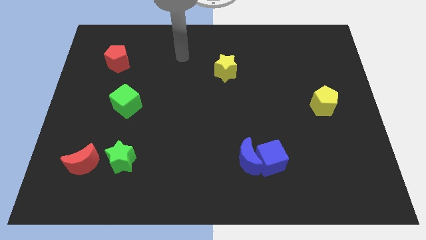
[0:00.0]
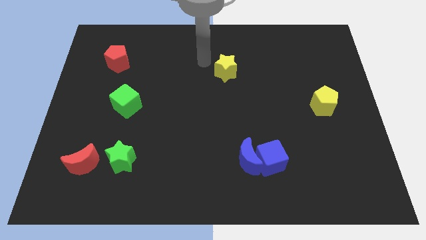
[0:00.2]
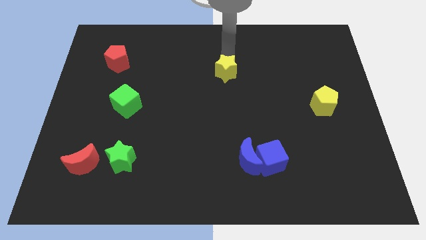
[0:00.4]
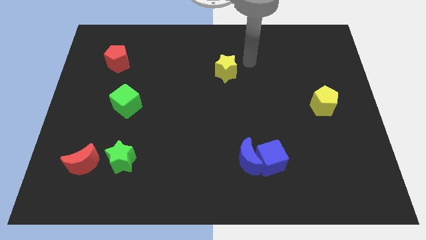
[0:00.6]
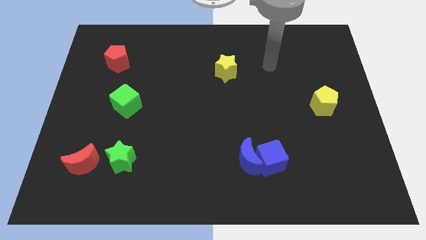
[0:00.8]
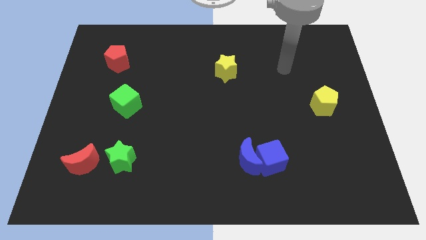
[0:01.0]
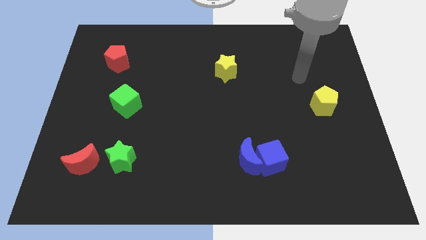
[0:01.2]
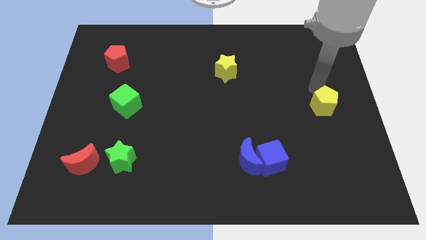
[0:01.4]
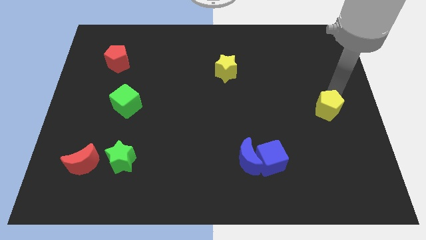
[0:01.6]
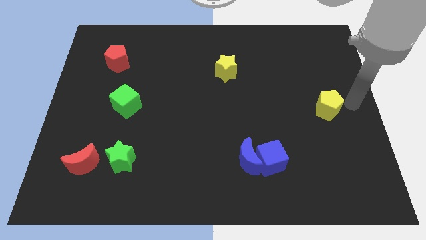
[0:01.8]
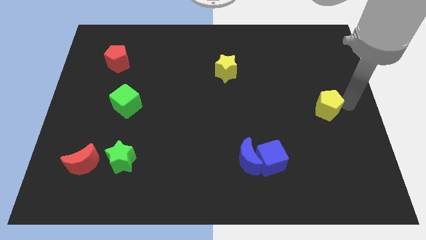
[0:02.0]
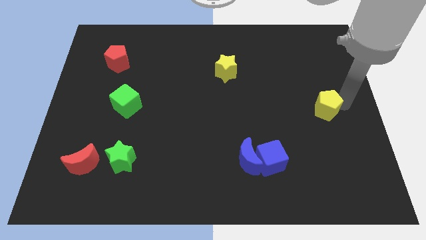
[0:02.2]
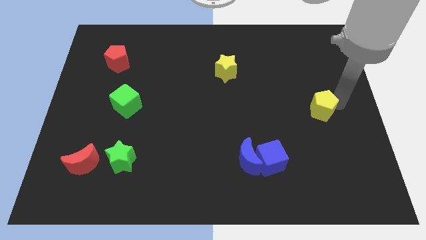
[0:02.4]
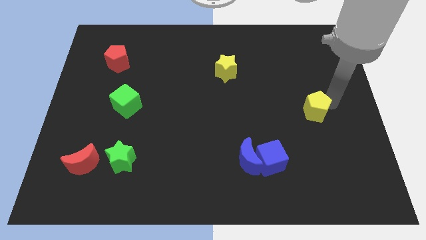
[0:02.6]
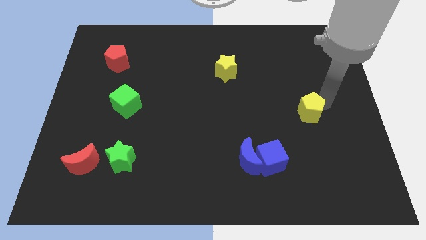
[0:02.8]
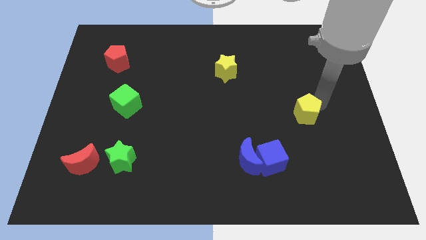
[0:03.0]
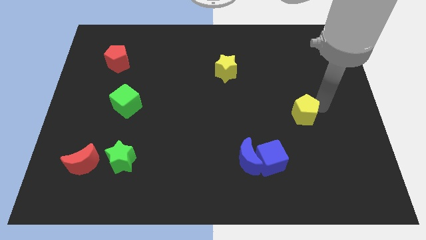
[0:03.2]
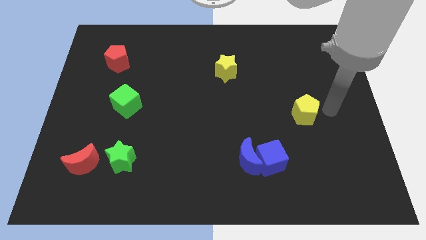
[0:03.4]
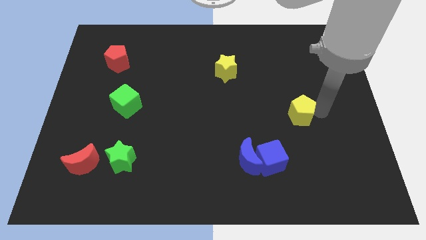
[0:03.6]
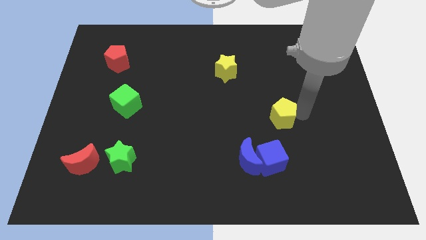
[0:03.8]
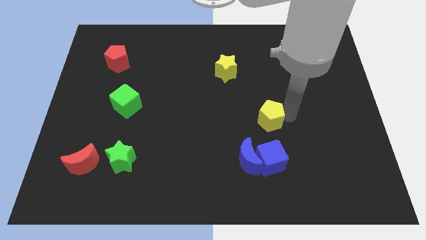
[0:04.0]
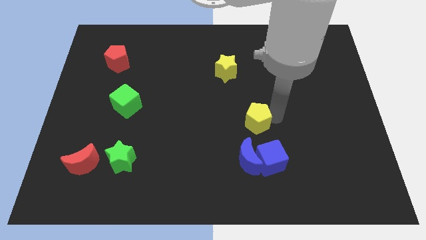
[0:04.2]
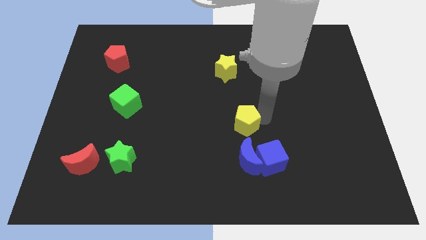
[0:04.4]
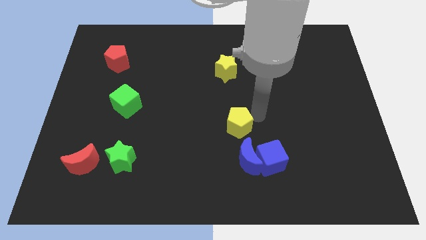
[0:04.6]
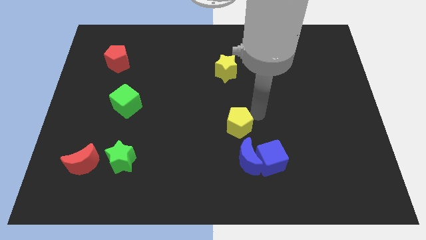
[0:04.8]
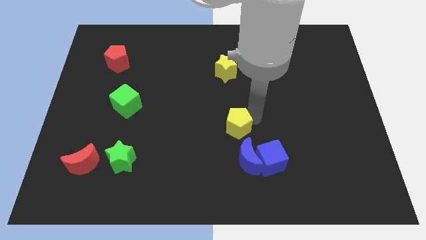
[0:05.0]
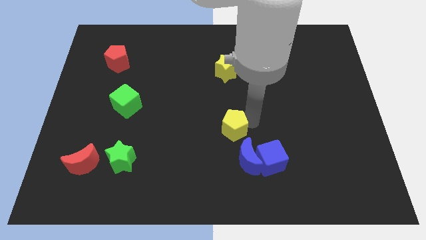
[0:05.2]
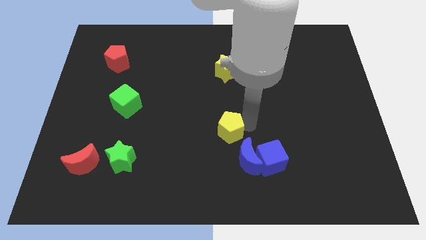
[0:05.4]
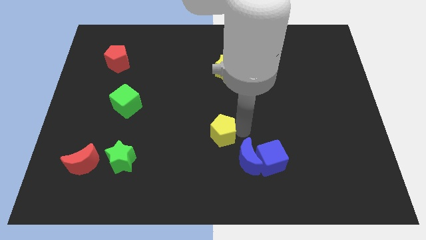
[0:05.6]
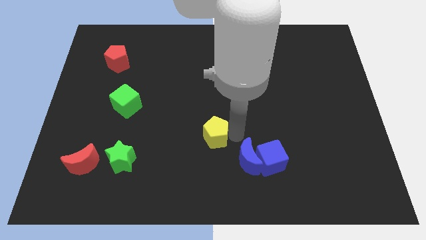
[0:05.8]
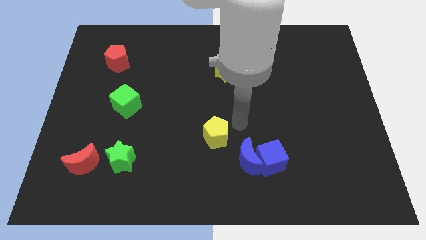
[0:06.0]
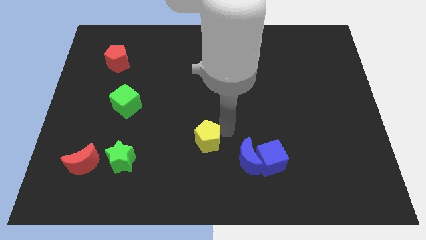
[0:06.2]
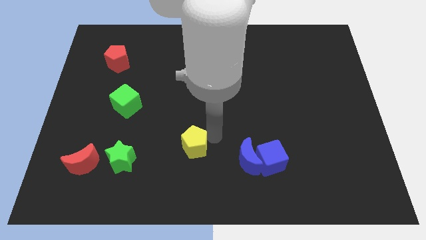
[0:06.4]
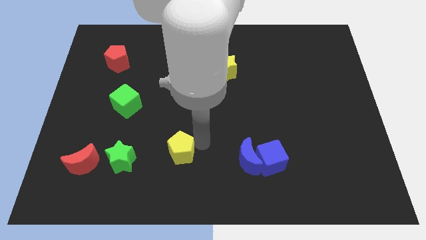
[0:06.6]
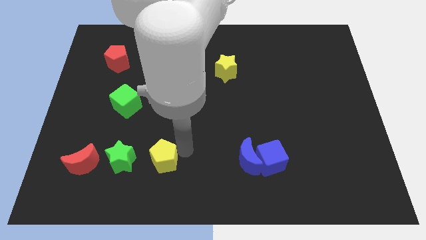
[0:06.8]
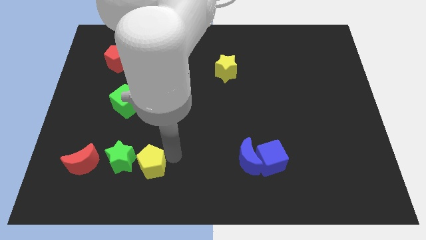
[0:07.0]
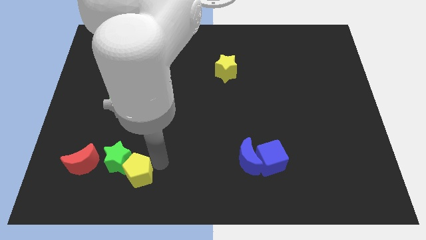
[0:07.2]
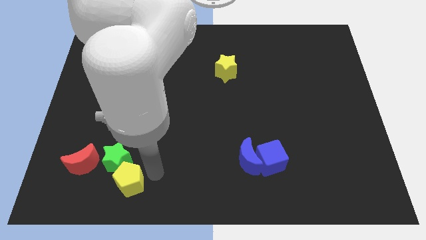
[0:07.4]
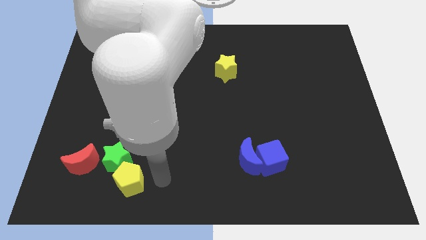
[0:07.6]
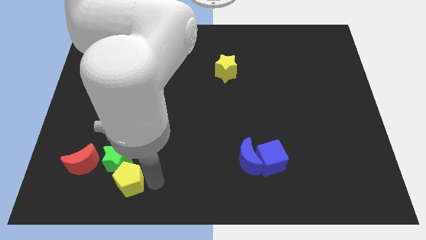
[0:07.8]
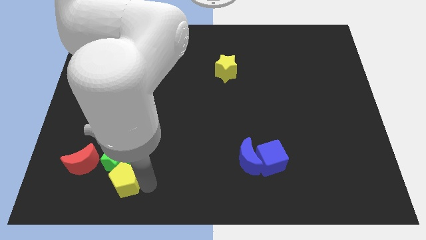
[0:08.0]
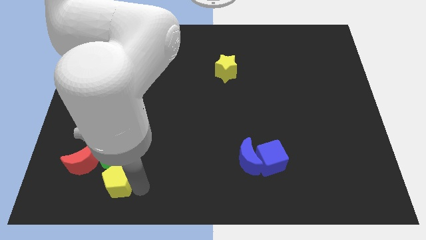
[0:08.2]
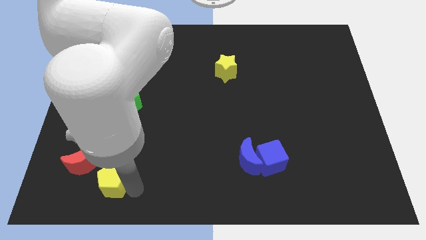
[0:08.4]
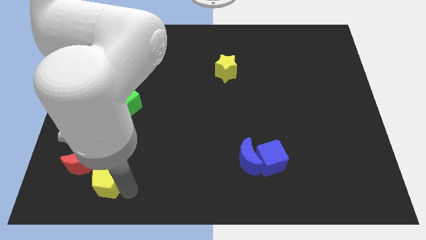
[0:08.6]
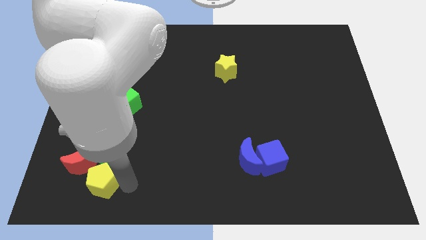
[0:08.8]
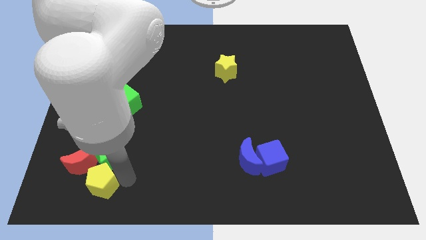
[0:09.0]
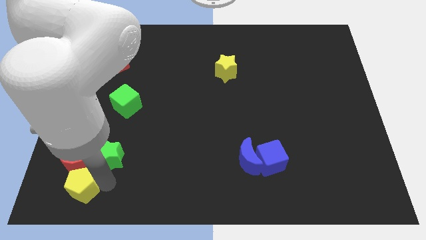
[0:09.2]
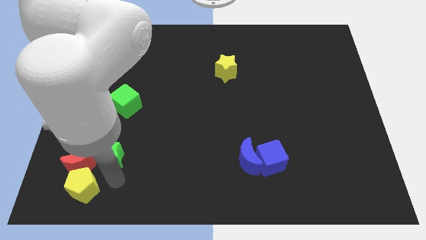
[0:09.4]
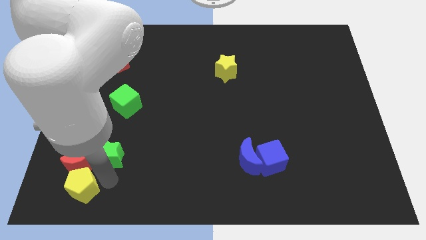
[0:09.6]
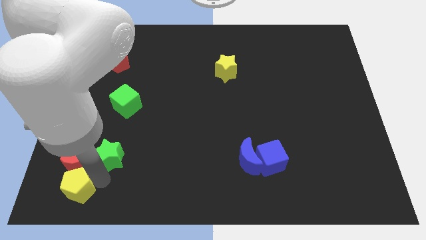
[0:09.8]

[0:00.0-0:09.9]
slide the yellow pentagon to the bottom left
